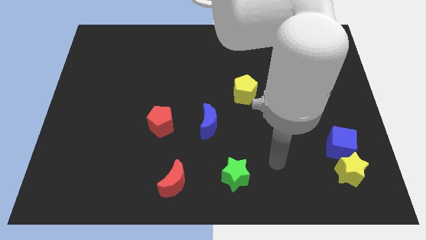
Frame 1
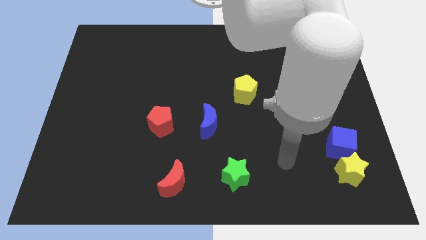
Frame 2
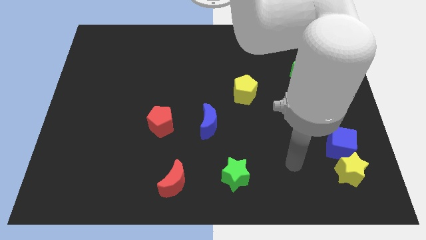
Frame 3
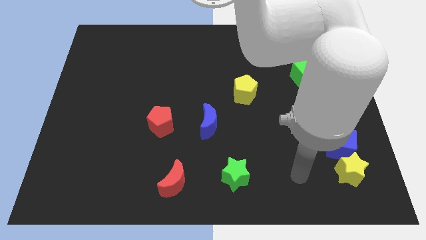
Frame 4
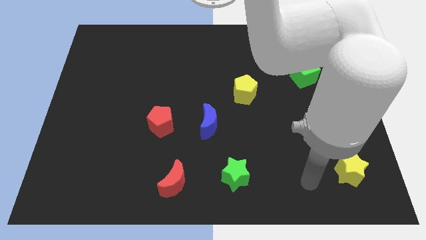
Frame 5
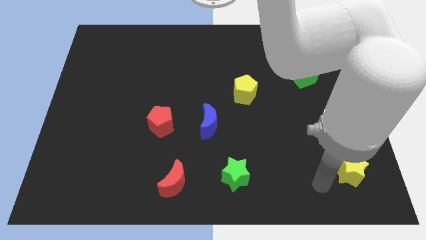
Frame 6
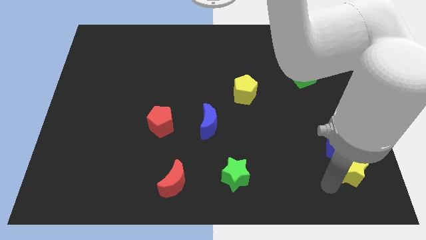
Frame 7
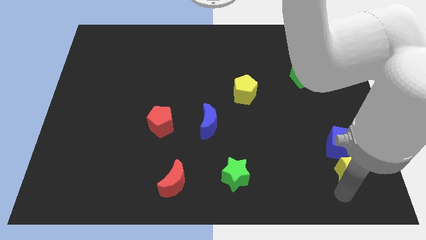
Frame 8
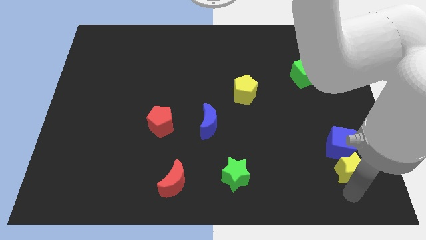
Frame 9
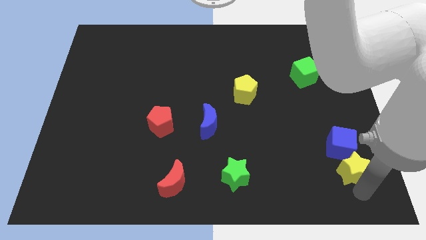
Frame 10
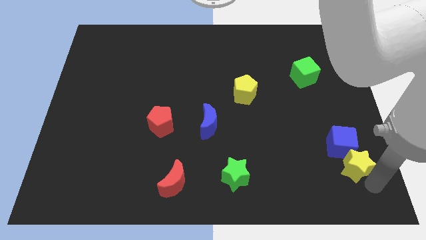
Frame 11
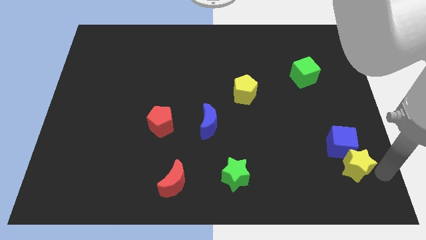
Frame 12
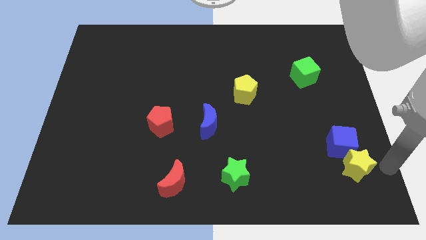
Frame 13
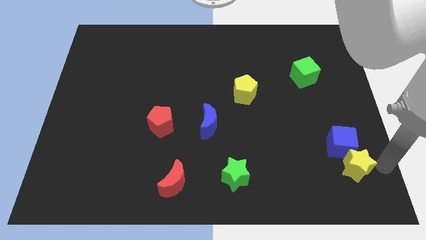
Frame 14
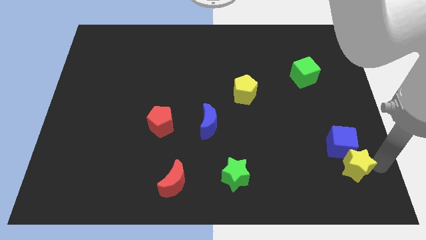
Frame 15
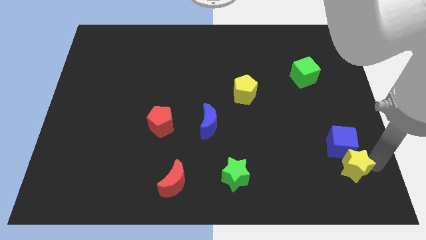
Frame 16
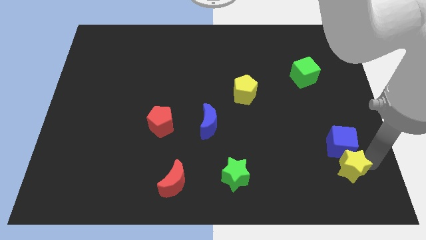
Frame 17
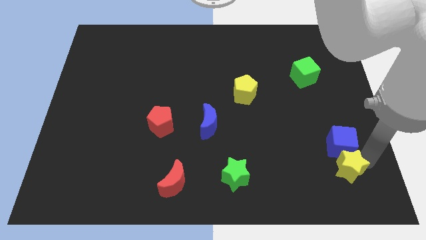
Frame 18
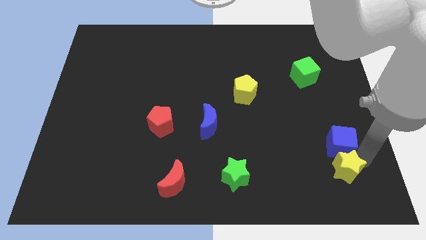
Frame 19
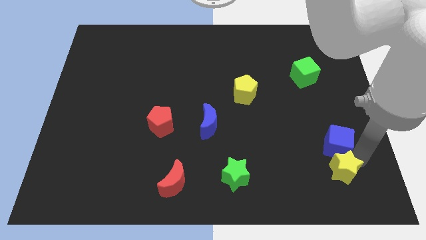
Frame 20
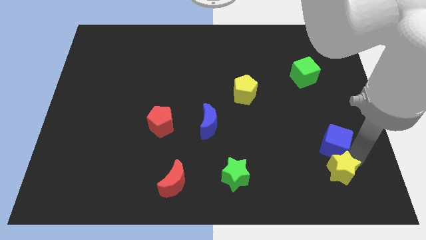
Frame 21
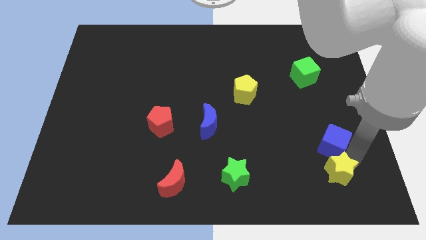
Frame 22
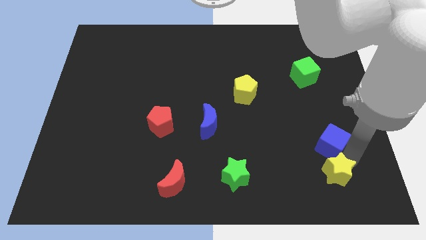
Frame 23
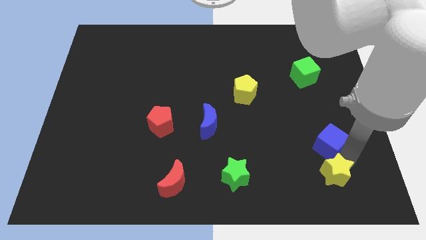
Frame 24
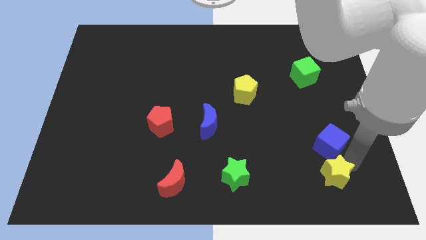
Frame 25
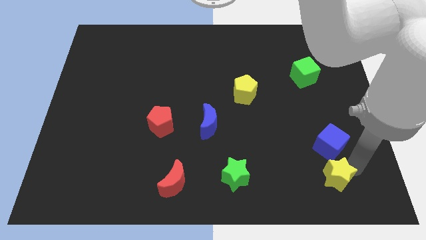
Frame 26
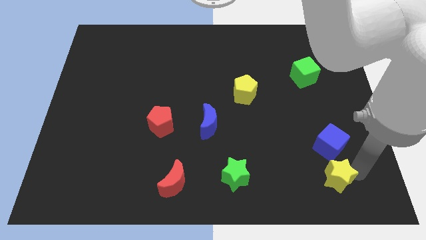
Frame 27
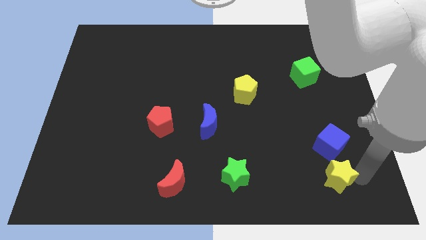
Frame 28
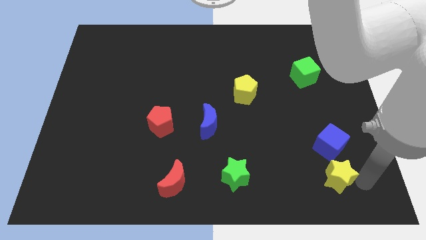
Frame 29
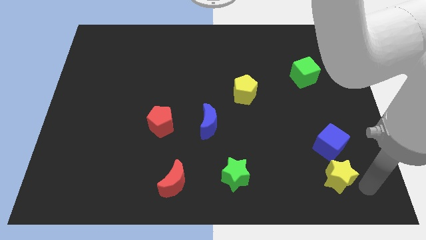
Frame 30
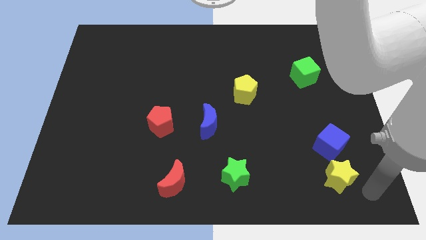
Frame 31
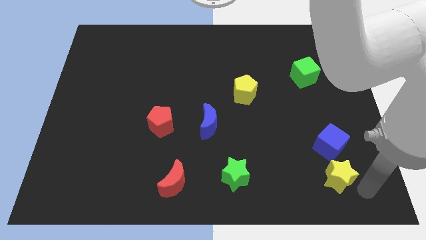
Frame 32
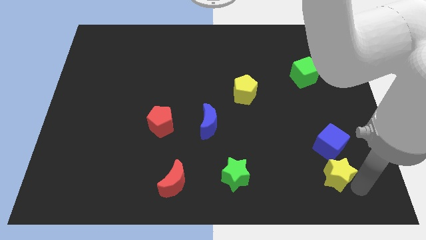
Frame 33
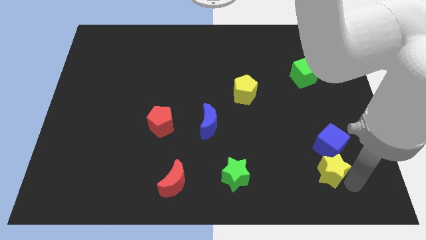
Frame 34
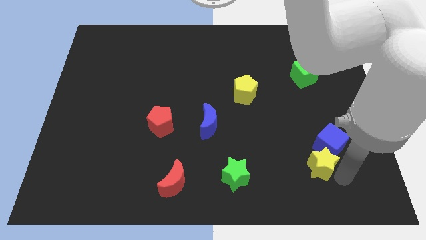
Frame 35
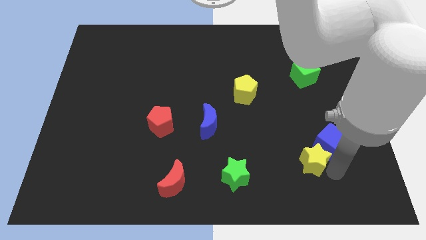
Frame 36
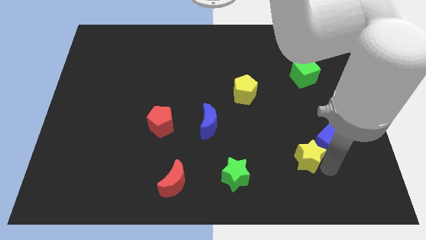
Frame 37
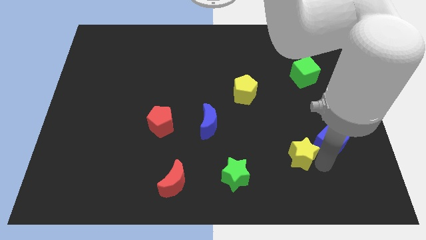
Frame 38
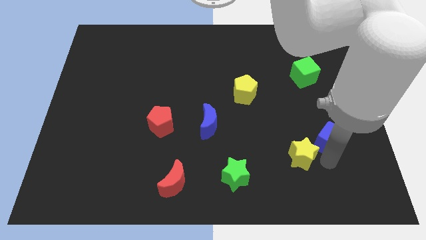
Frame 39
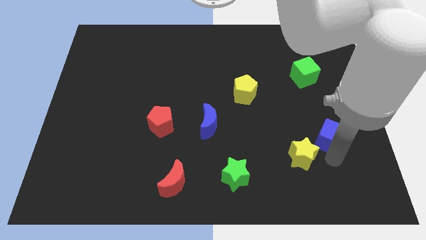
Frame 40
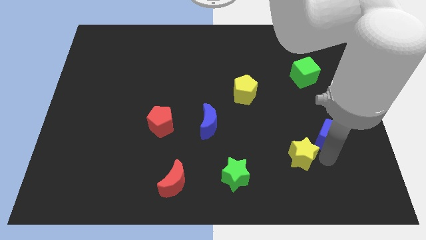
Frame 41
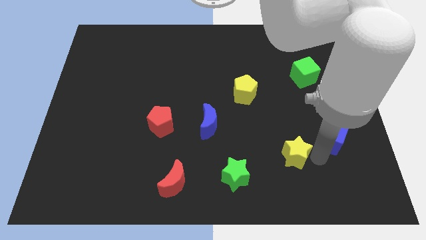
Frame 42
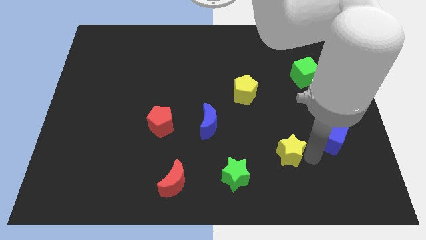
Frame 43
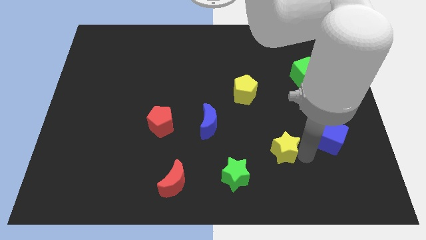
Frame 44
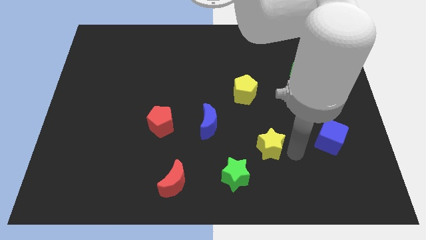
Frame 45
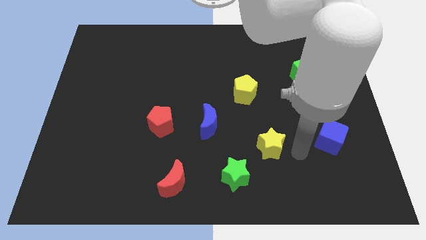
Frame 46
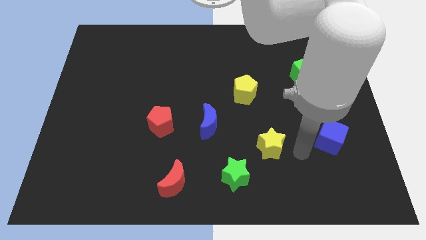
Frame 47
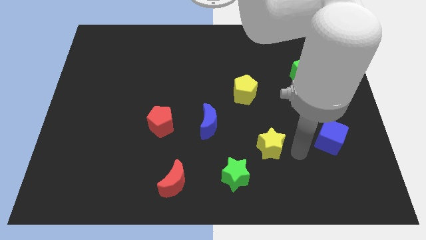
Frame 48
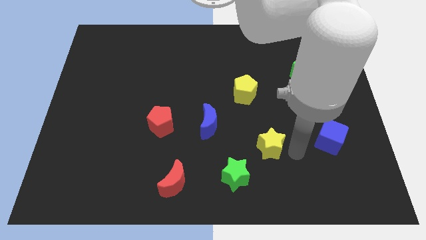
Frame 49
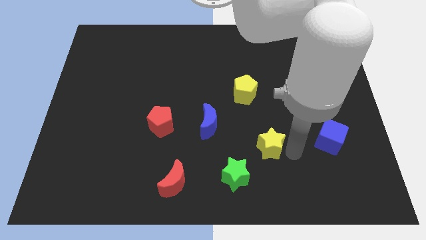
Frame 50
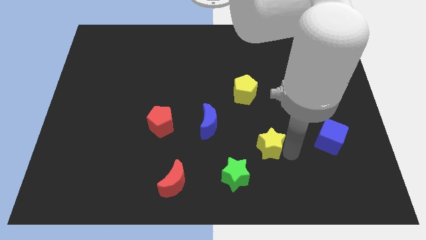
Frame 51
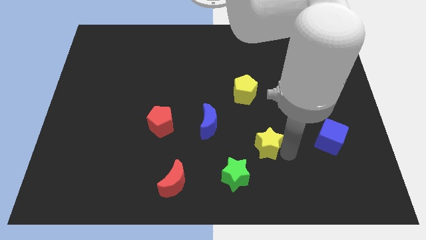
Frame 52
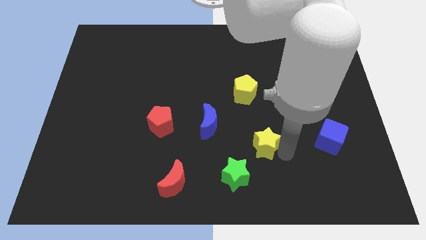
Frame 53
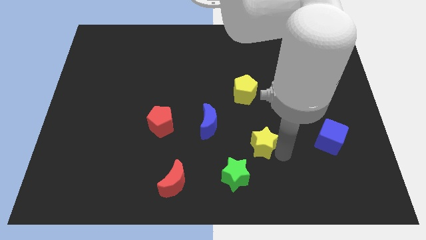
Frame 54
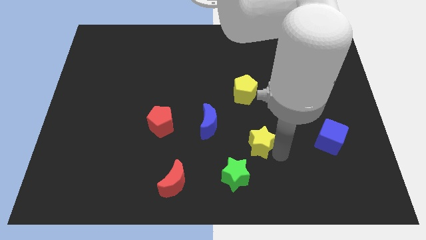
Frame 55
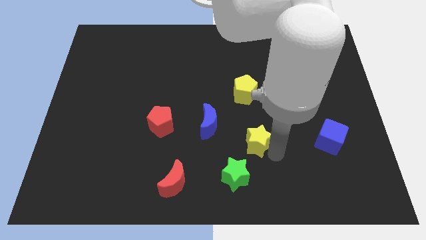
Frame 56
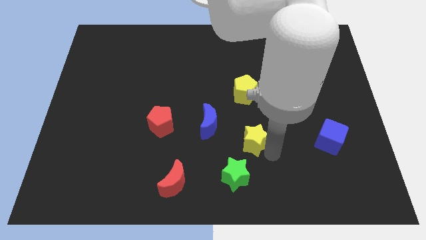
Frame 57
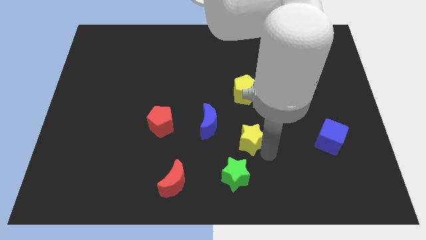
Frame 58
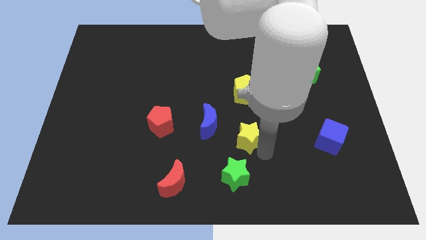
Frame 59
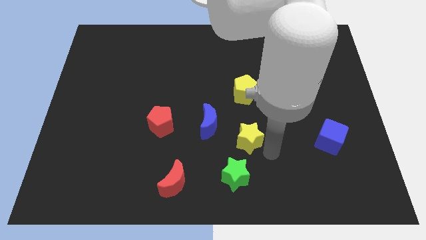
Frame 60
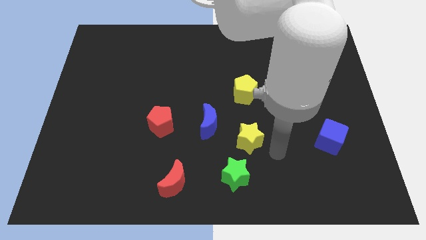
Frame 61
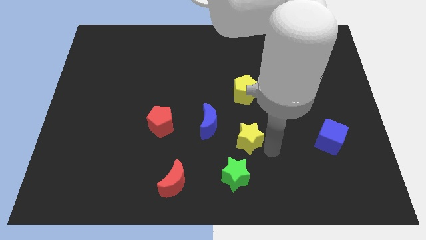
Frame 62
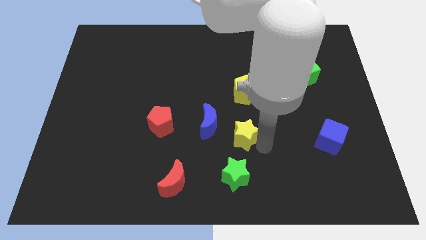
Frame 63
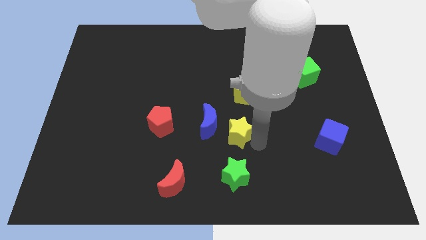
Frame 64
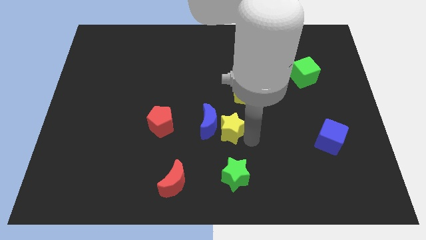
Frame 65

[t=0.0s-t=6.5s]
move the yellow star next to the blue moon

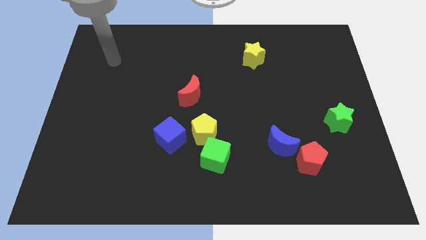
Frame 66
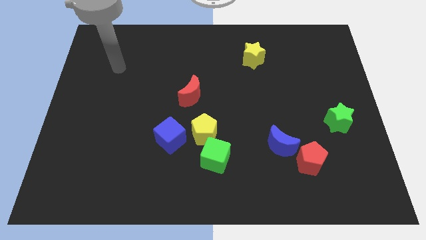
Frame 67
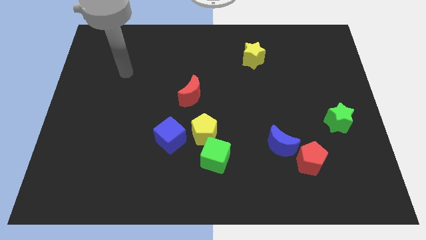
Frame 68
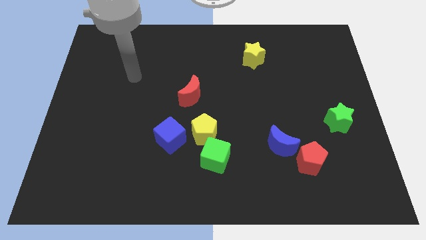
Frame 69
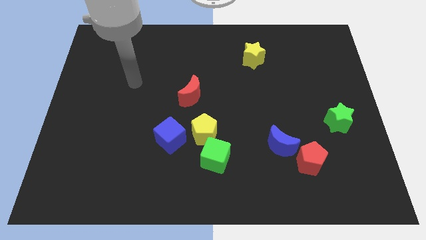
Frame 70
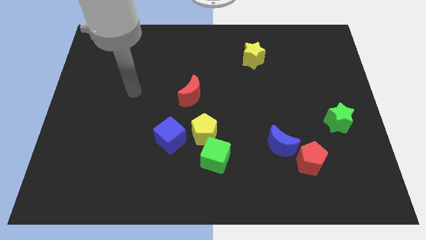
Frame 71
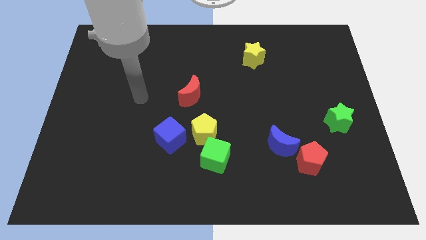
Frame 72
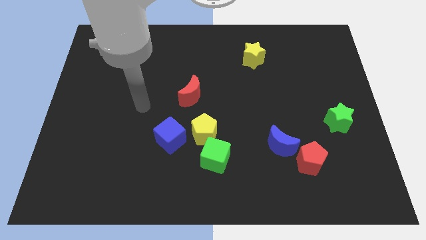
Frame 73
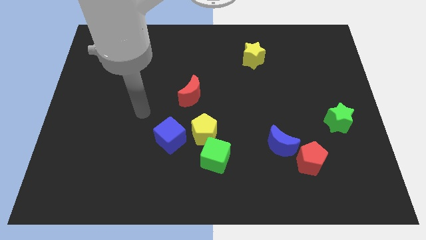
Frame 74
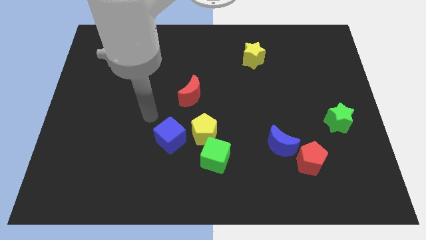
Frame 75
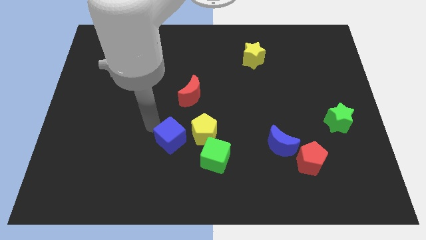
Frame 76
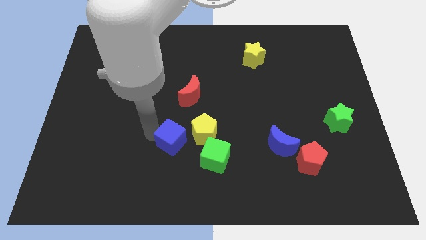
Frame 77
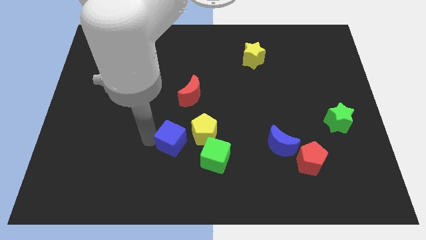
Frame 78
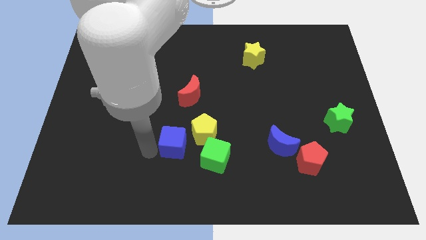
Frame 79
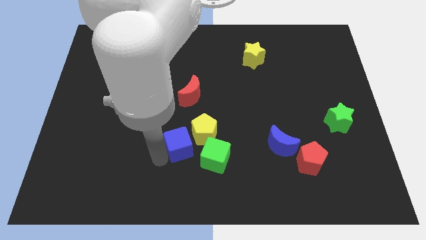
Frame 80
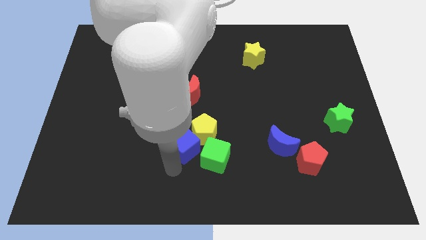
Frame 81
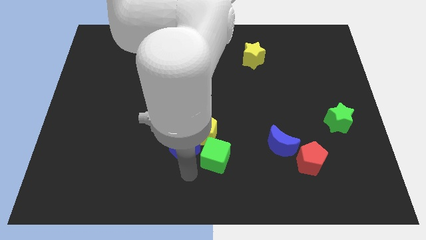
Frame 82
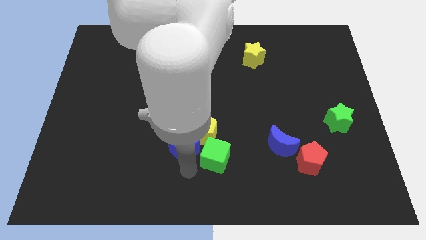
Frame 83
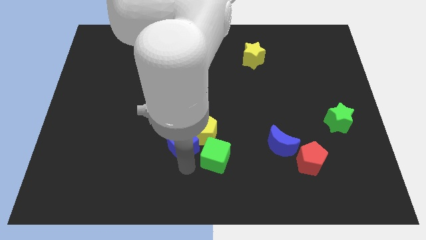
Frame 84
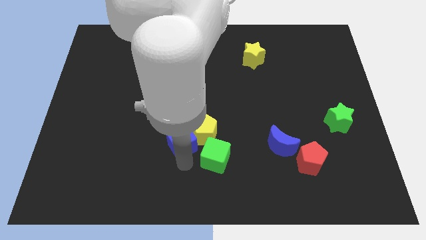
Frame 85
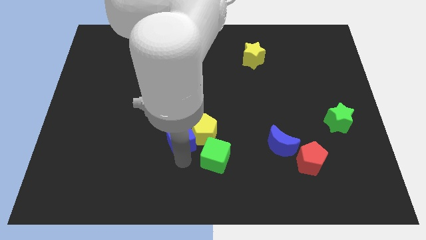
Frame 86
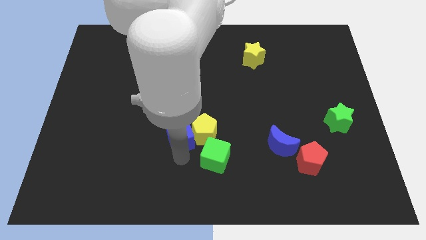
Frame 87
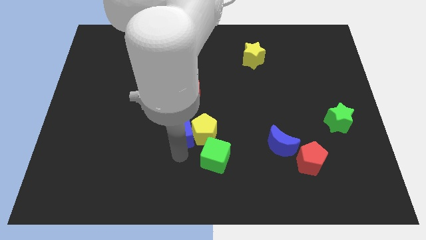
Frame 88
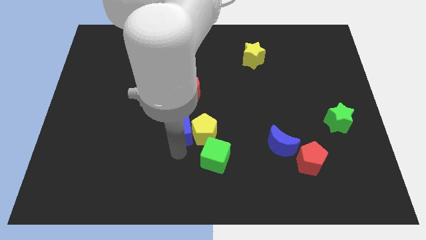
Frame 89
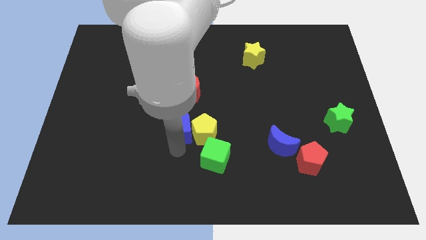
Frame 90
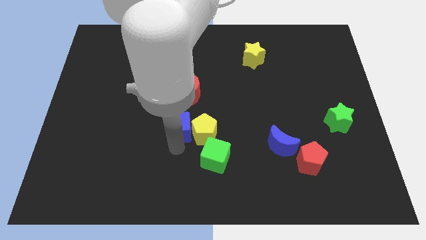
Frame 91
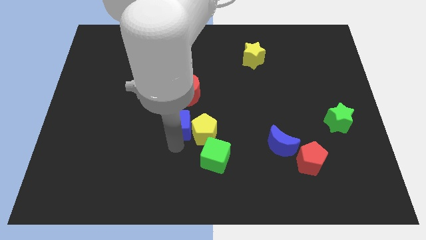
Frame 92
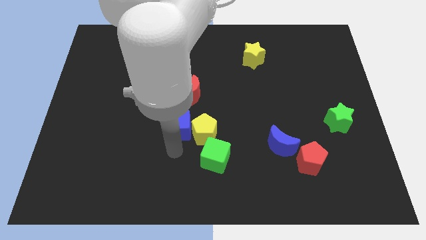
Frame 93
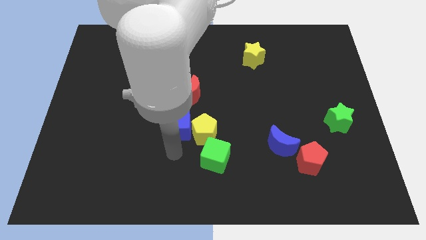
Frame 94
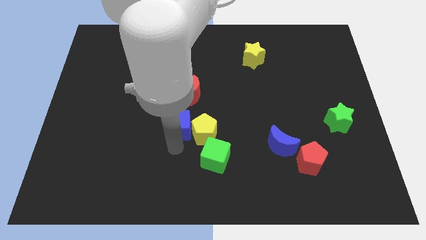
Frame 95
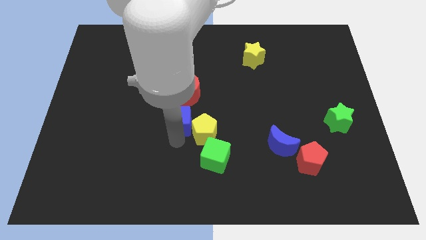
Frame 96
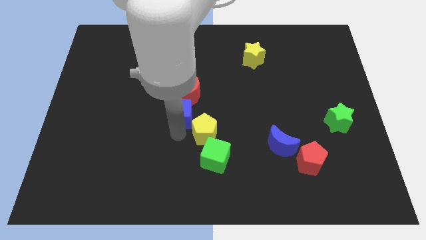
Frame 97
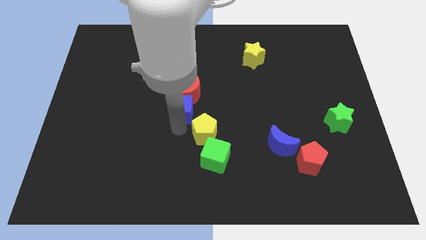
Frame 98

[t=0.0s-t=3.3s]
put the blue cube next to the red moon
